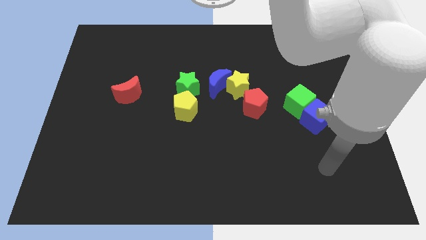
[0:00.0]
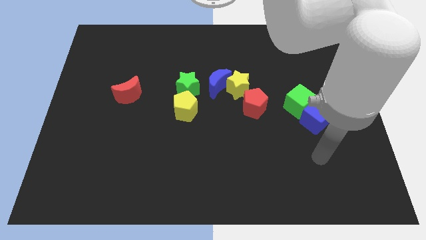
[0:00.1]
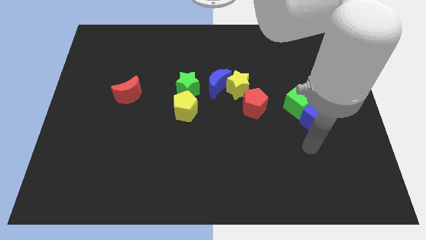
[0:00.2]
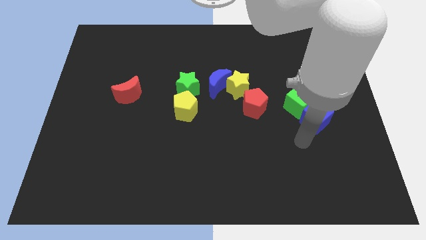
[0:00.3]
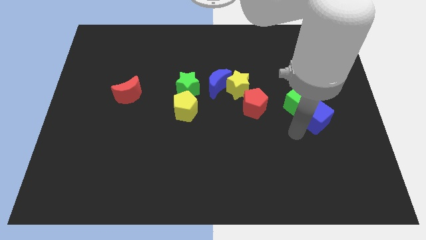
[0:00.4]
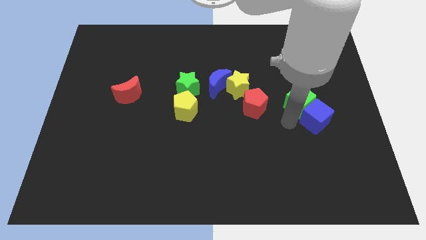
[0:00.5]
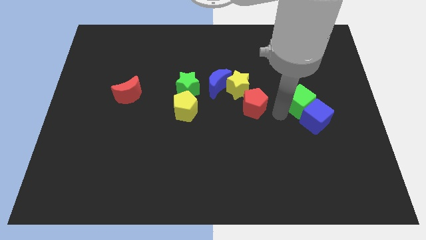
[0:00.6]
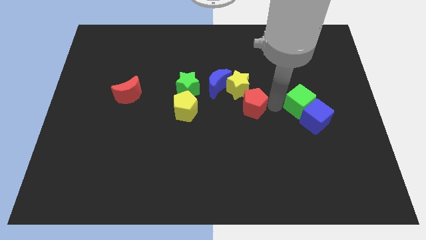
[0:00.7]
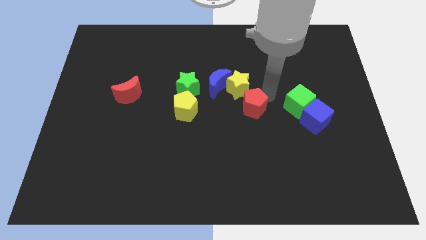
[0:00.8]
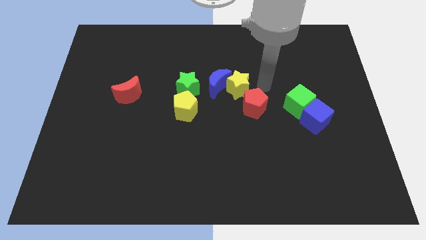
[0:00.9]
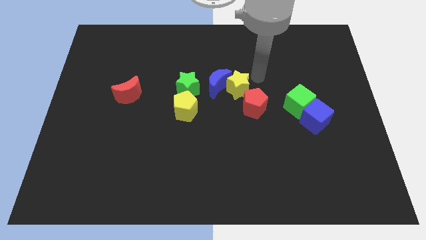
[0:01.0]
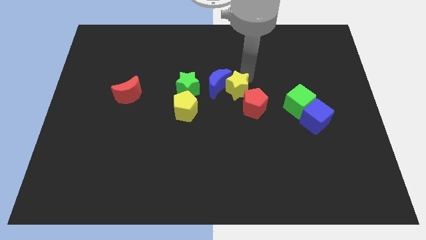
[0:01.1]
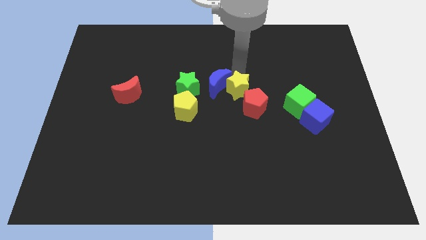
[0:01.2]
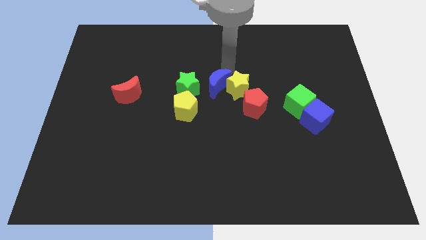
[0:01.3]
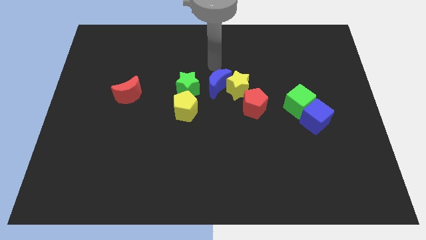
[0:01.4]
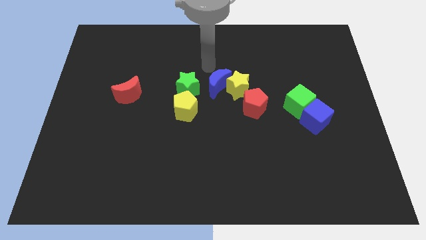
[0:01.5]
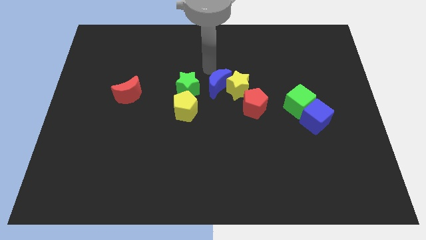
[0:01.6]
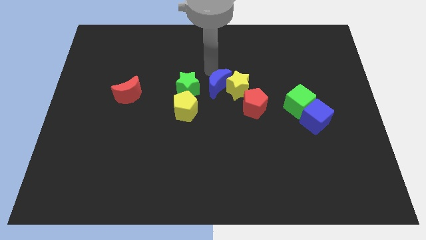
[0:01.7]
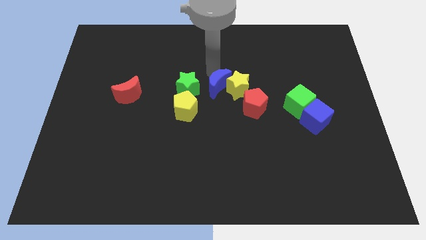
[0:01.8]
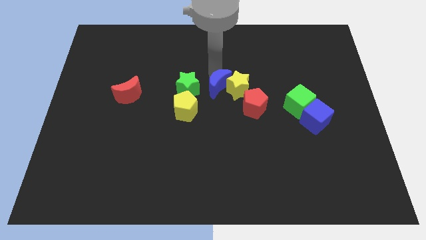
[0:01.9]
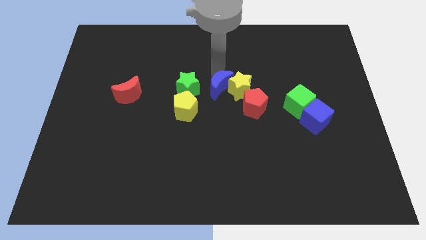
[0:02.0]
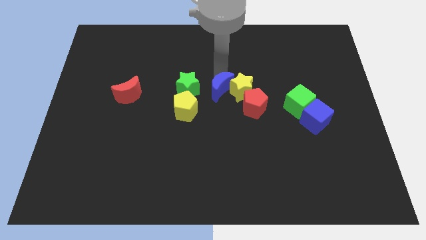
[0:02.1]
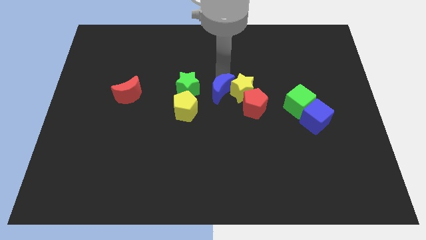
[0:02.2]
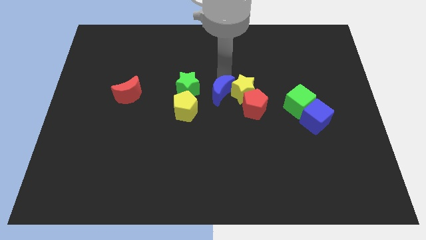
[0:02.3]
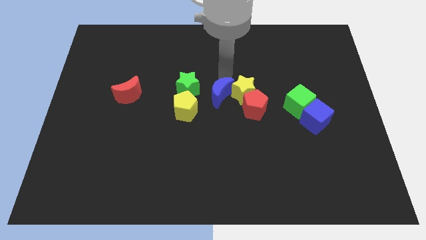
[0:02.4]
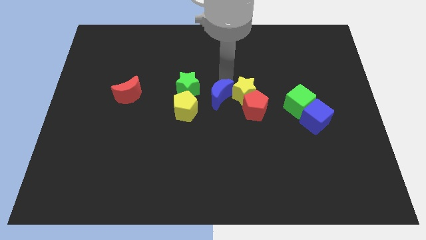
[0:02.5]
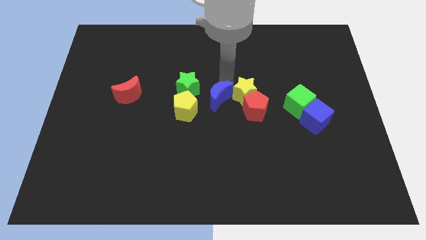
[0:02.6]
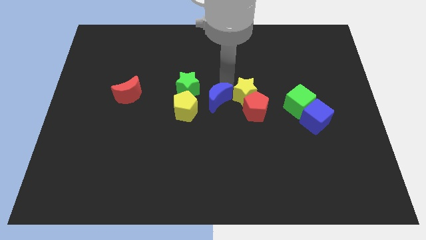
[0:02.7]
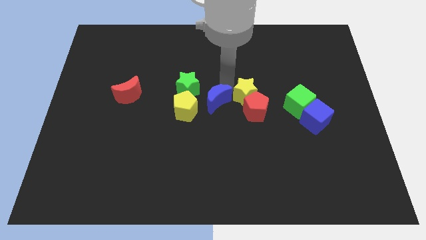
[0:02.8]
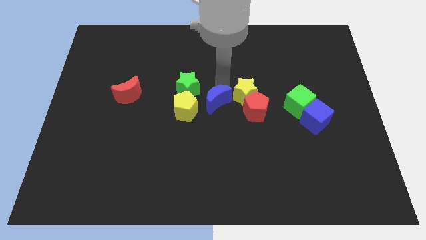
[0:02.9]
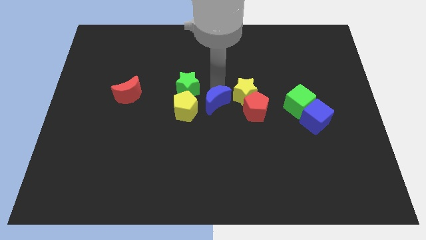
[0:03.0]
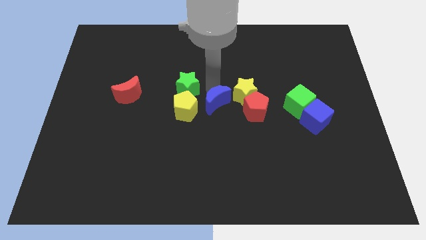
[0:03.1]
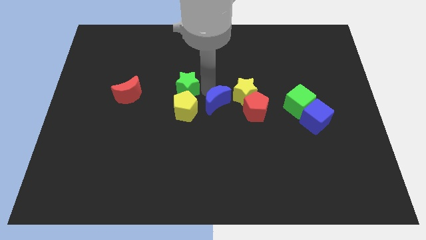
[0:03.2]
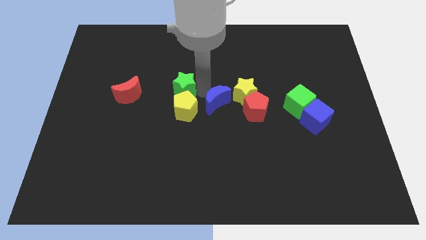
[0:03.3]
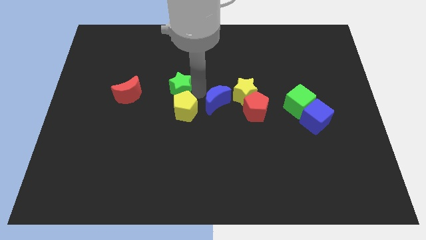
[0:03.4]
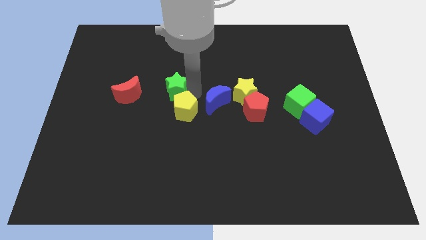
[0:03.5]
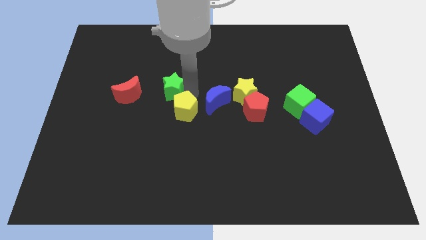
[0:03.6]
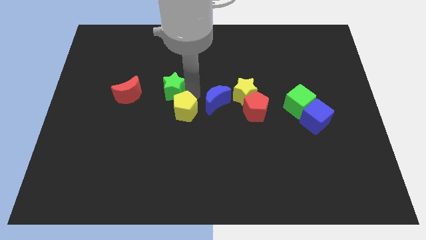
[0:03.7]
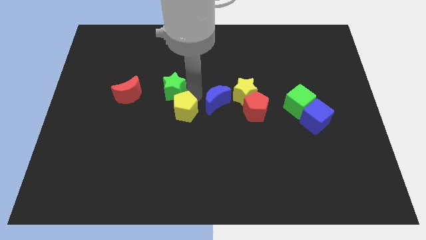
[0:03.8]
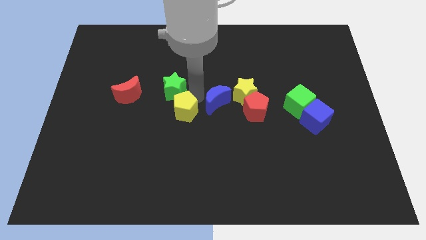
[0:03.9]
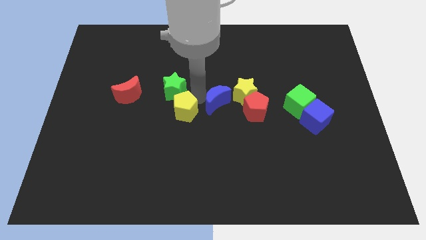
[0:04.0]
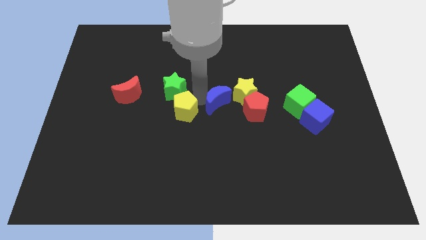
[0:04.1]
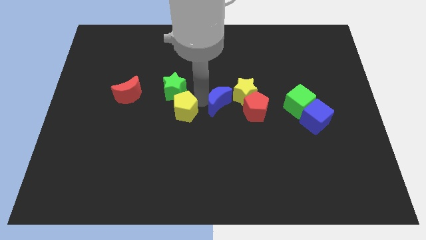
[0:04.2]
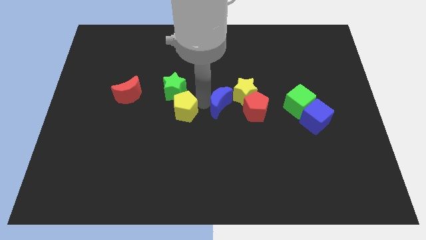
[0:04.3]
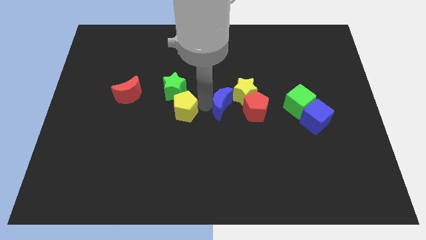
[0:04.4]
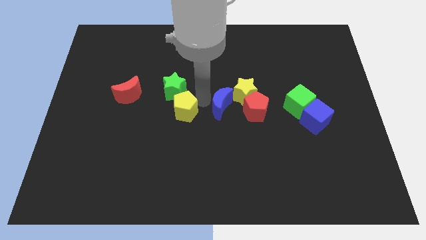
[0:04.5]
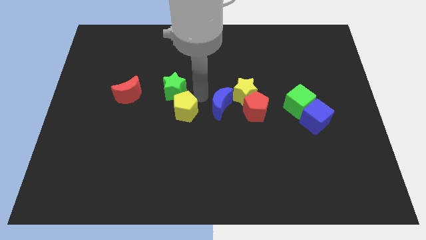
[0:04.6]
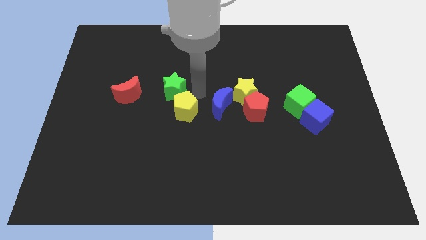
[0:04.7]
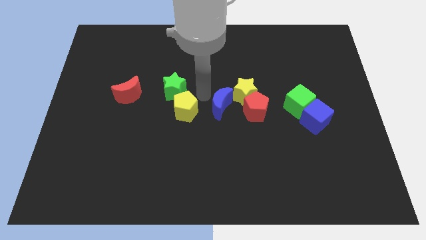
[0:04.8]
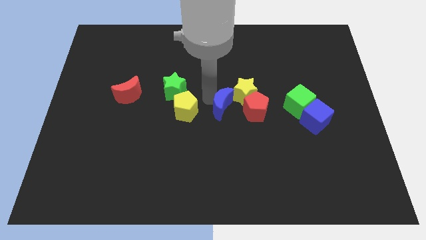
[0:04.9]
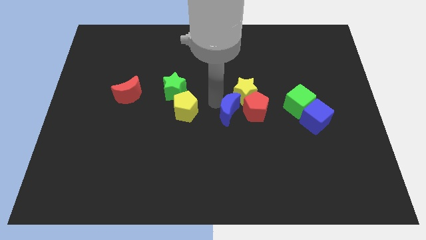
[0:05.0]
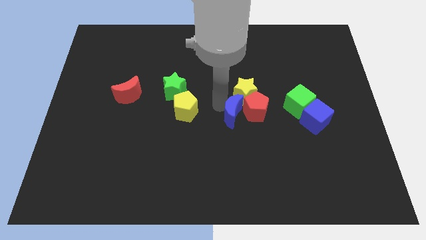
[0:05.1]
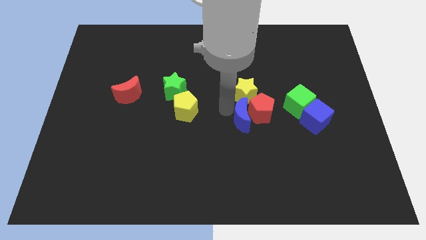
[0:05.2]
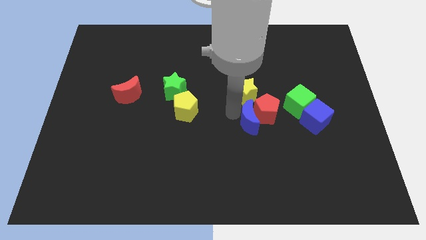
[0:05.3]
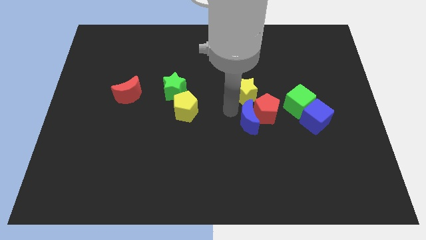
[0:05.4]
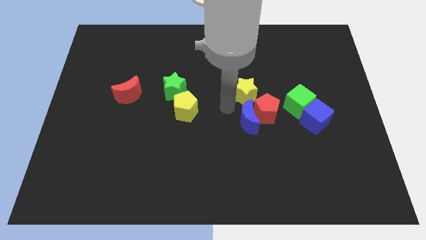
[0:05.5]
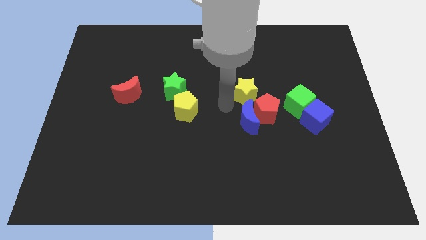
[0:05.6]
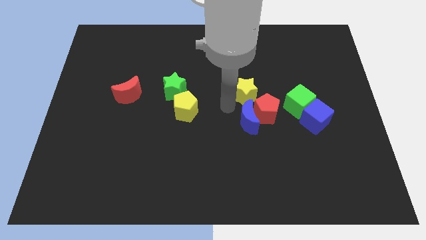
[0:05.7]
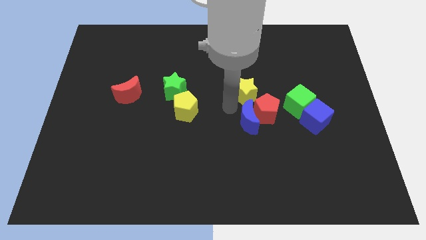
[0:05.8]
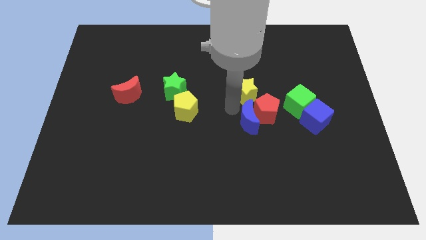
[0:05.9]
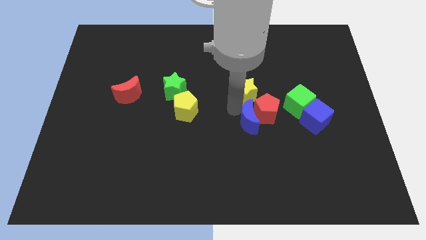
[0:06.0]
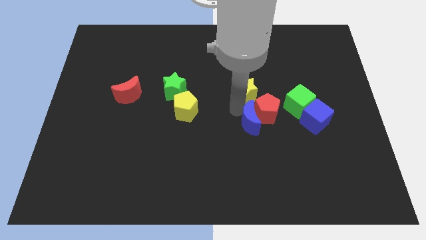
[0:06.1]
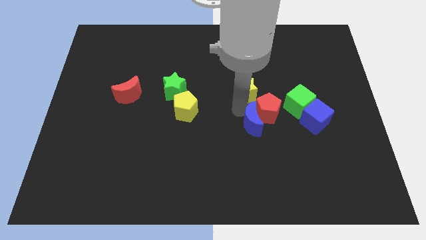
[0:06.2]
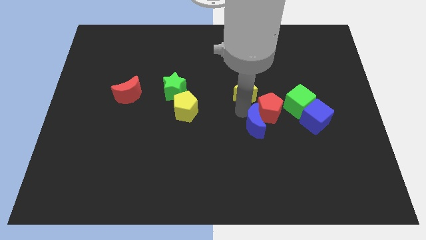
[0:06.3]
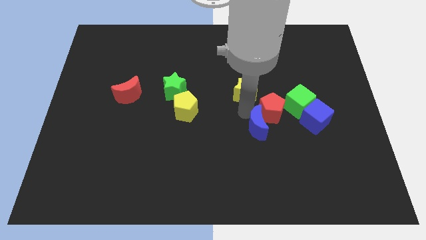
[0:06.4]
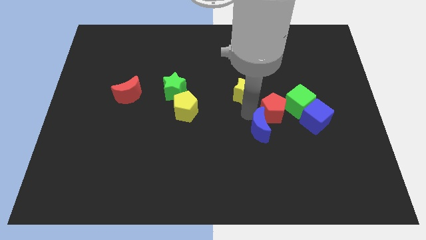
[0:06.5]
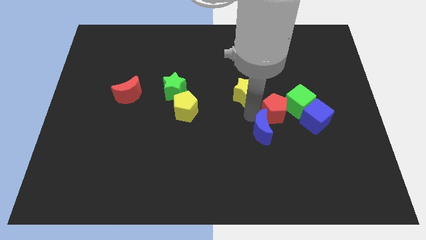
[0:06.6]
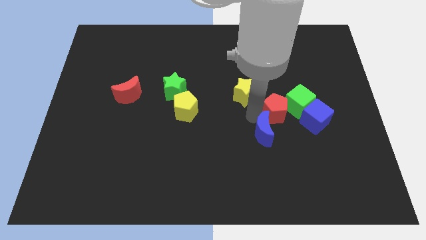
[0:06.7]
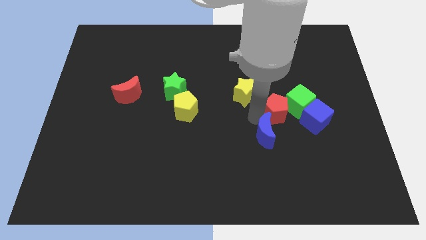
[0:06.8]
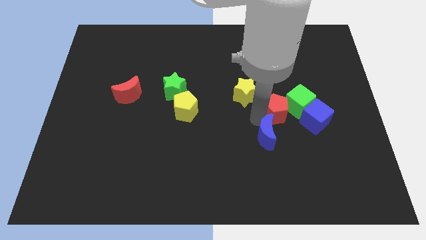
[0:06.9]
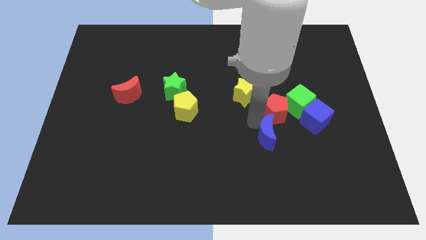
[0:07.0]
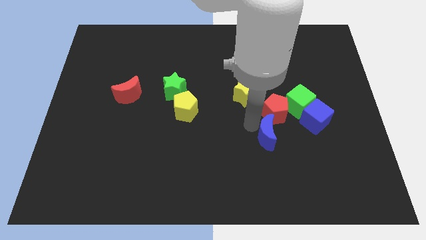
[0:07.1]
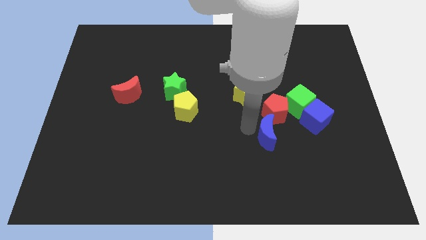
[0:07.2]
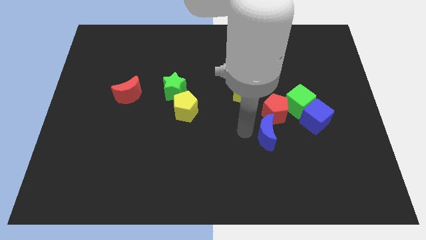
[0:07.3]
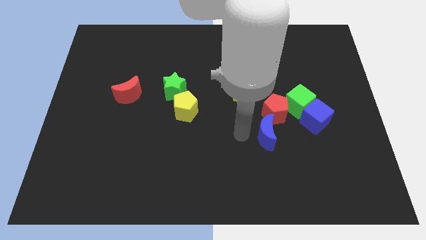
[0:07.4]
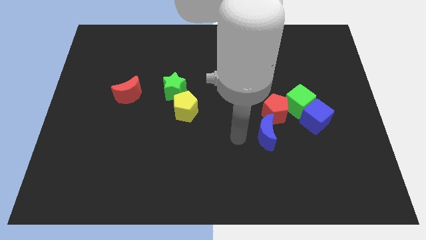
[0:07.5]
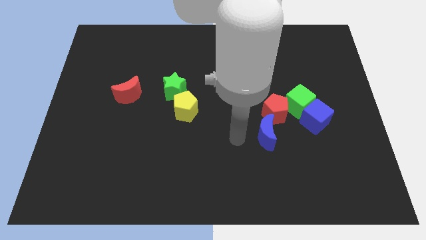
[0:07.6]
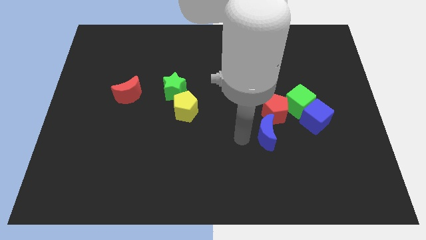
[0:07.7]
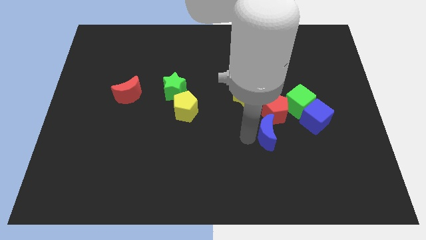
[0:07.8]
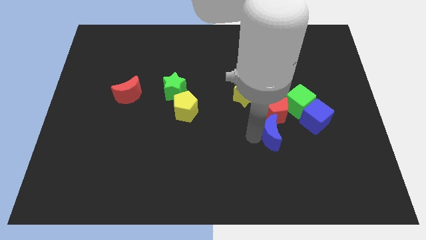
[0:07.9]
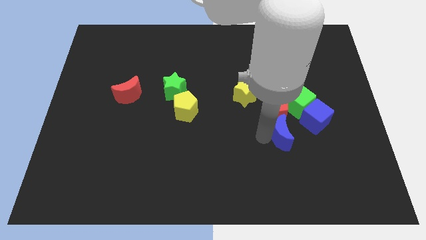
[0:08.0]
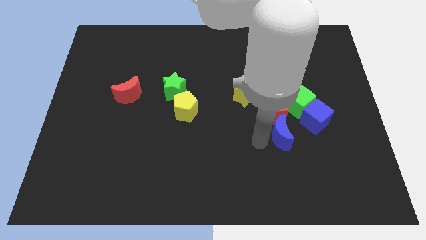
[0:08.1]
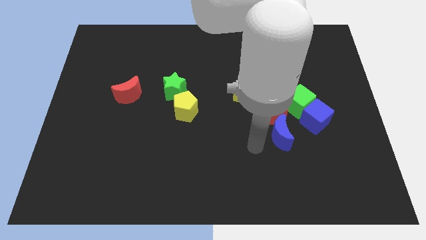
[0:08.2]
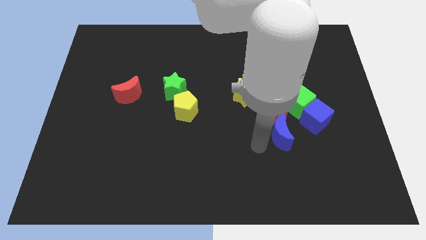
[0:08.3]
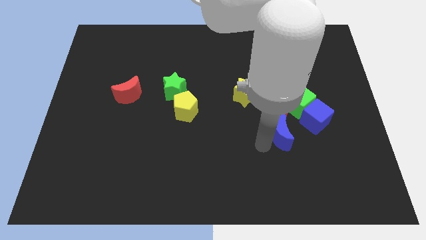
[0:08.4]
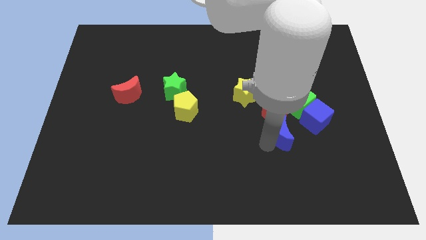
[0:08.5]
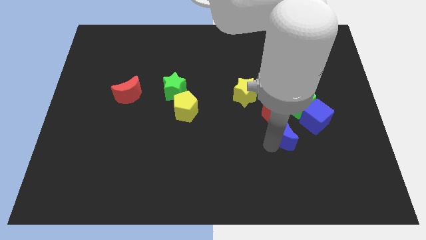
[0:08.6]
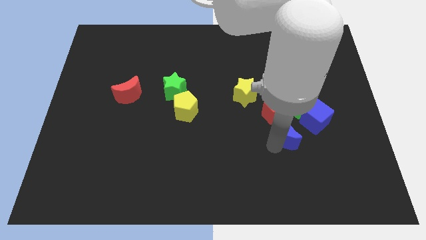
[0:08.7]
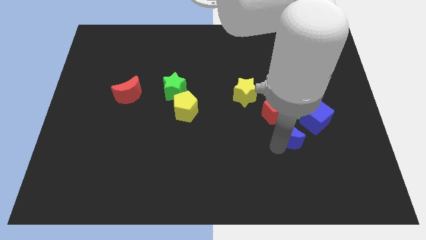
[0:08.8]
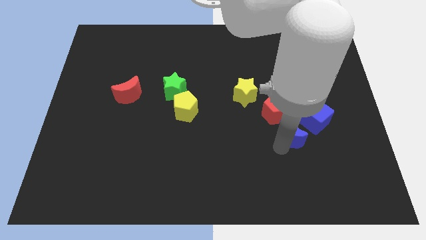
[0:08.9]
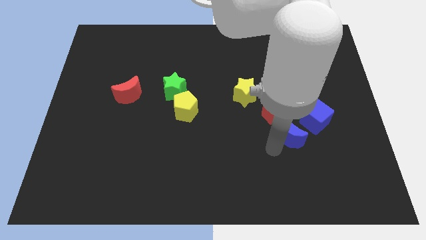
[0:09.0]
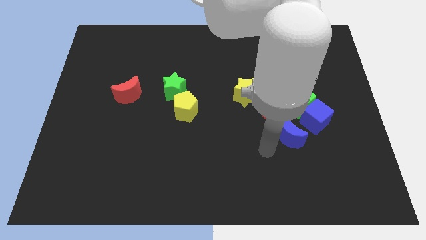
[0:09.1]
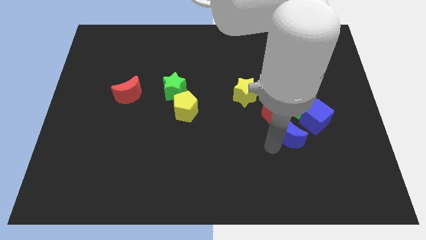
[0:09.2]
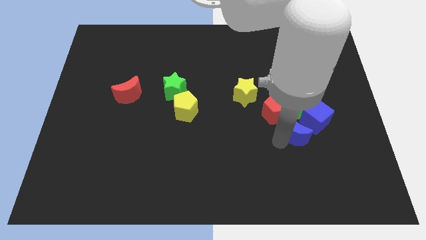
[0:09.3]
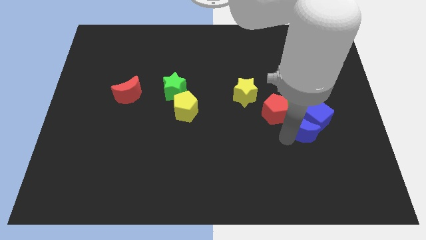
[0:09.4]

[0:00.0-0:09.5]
push the blue moon next to the blue cube
